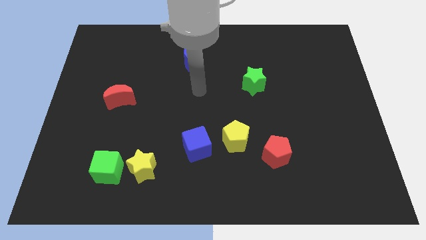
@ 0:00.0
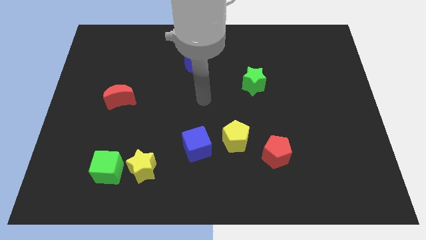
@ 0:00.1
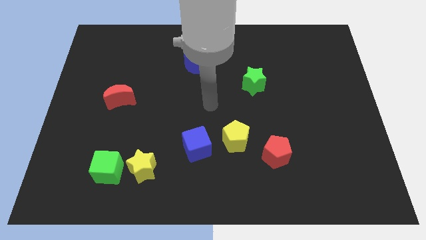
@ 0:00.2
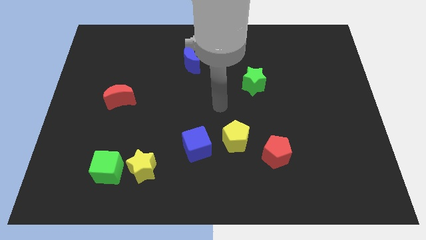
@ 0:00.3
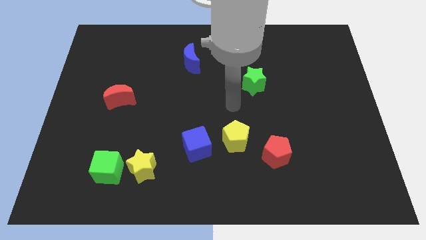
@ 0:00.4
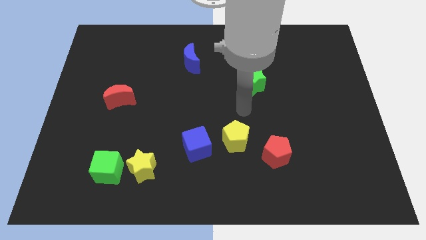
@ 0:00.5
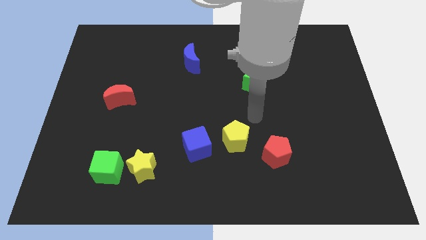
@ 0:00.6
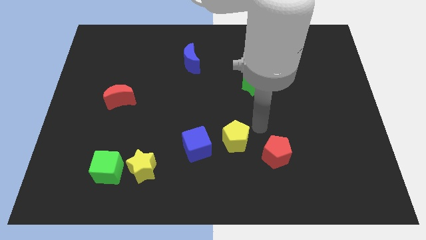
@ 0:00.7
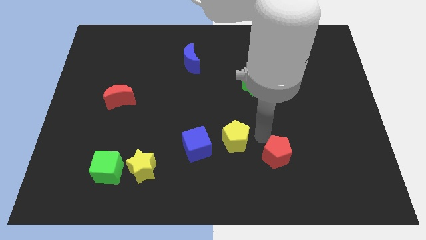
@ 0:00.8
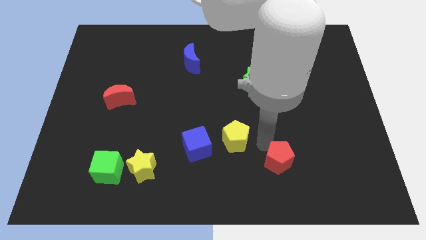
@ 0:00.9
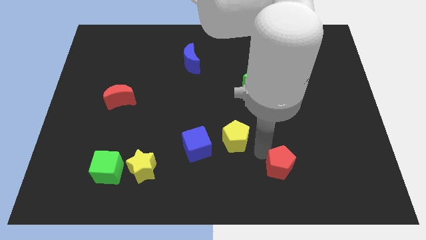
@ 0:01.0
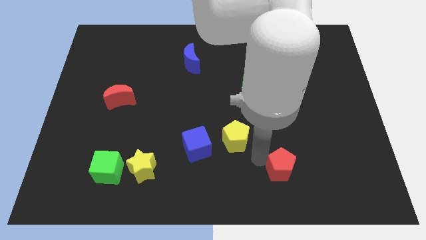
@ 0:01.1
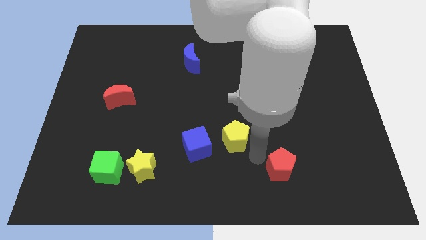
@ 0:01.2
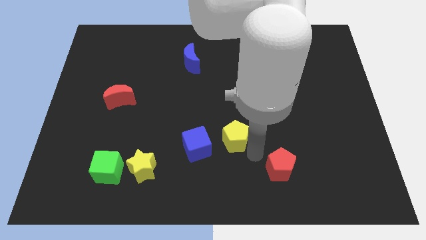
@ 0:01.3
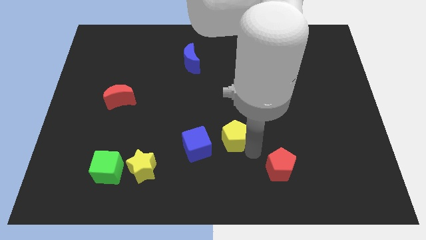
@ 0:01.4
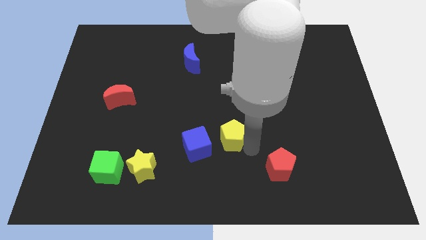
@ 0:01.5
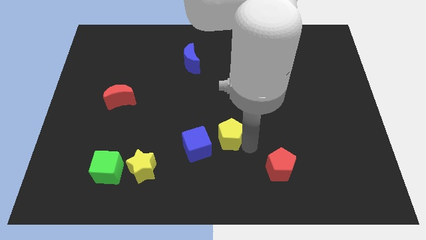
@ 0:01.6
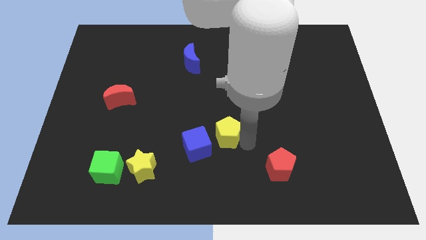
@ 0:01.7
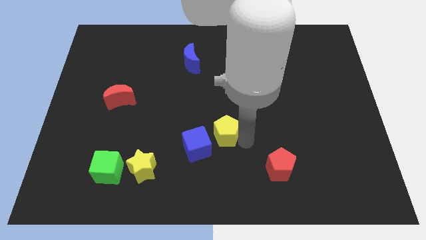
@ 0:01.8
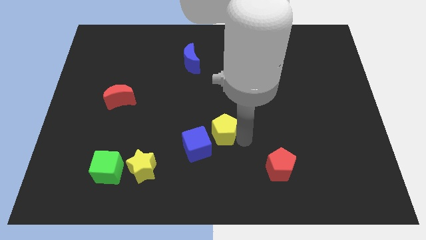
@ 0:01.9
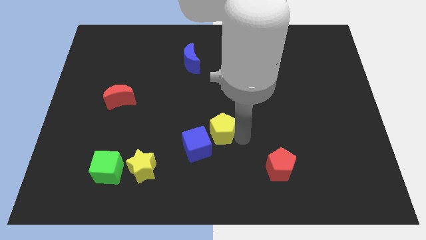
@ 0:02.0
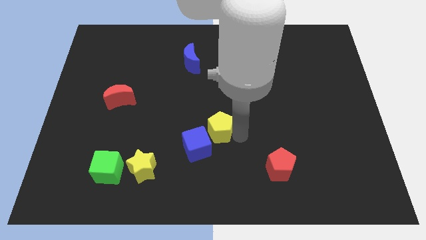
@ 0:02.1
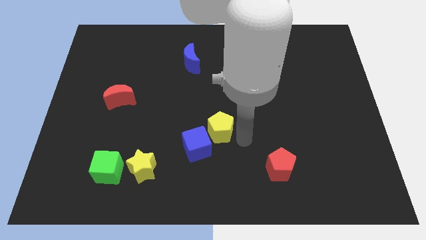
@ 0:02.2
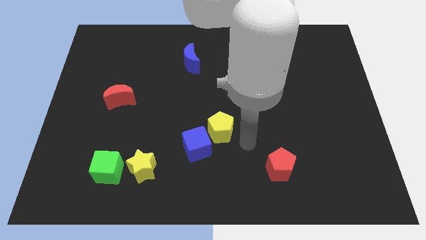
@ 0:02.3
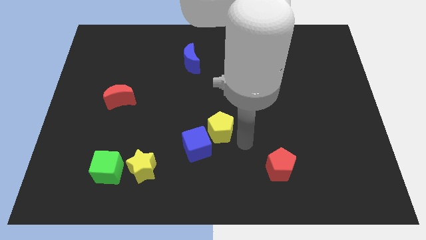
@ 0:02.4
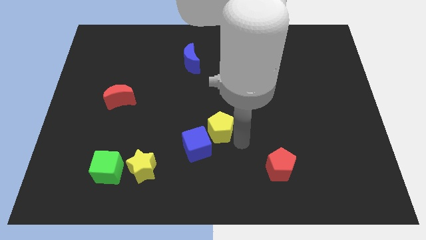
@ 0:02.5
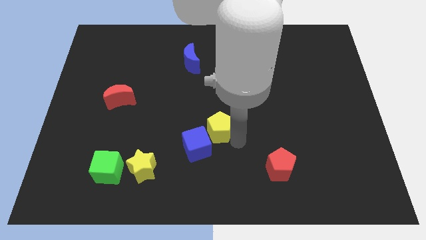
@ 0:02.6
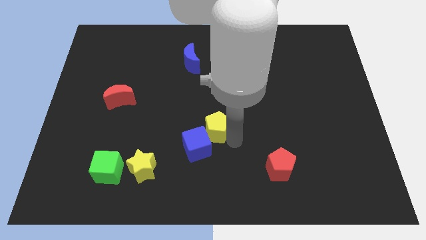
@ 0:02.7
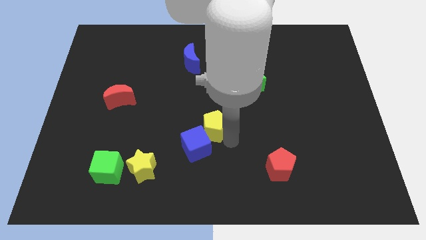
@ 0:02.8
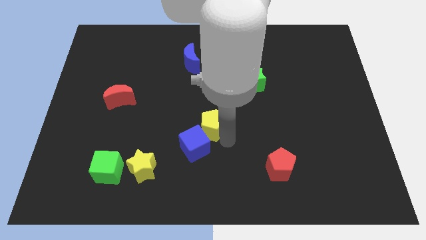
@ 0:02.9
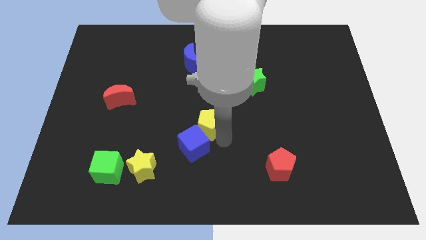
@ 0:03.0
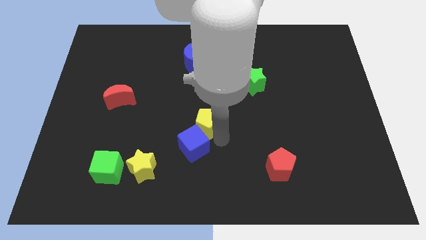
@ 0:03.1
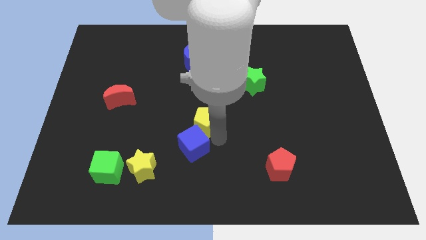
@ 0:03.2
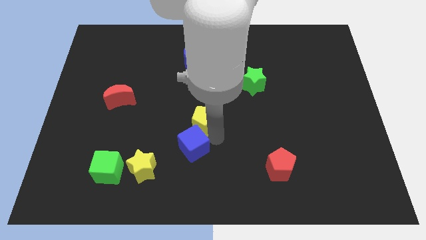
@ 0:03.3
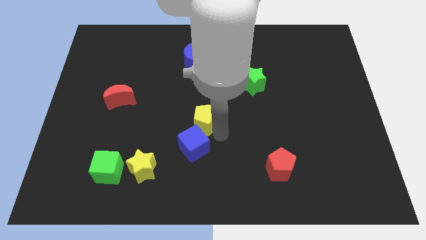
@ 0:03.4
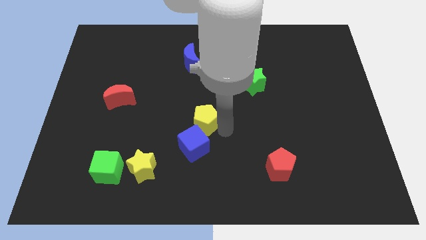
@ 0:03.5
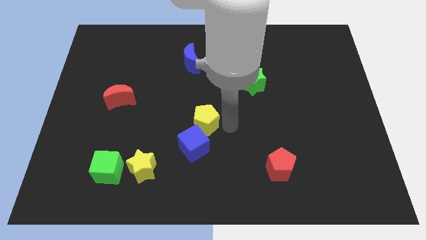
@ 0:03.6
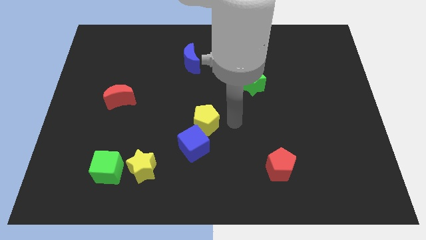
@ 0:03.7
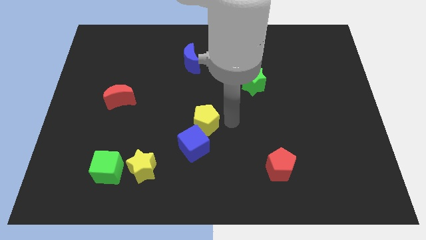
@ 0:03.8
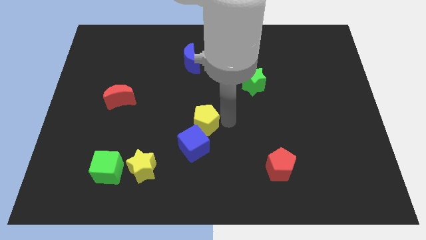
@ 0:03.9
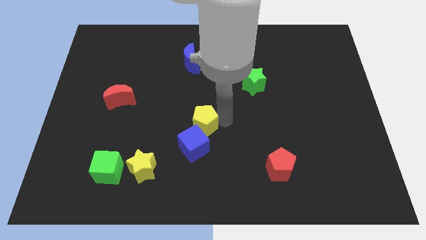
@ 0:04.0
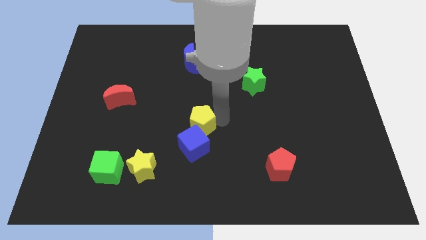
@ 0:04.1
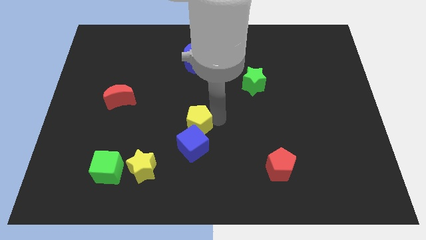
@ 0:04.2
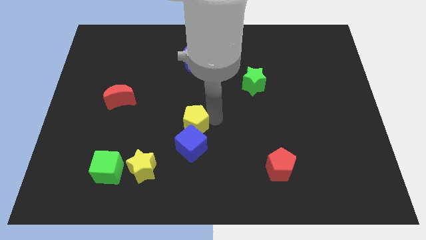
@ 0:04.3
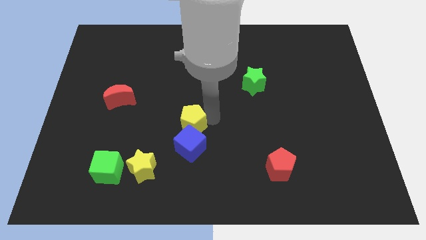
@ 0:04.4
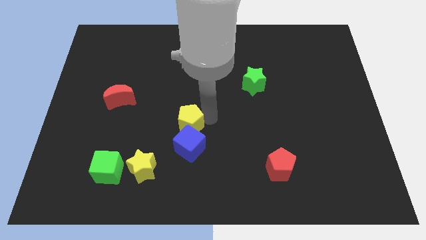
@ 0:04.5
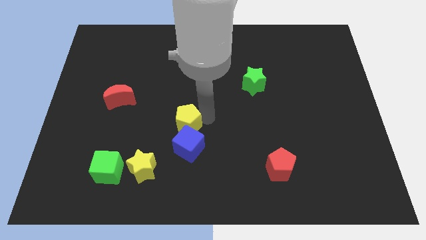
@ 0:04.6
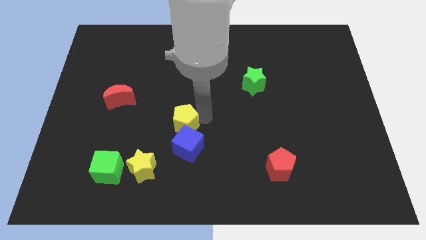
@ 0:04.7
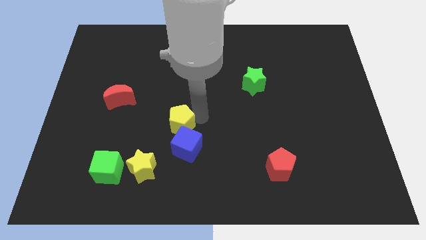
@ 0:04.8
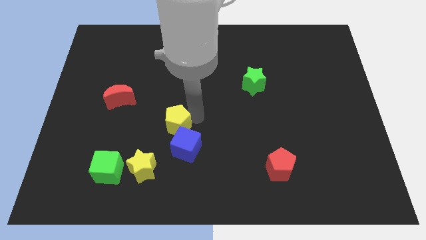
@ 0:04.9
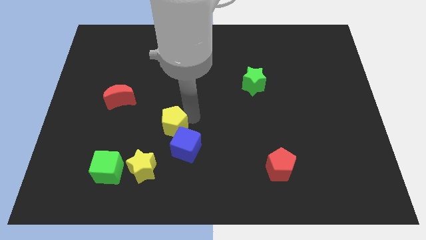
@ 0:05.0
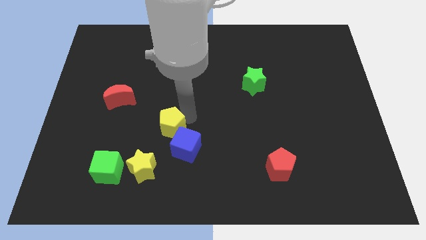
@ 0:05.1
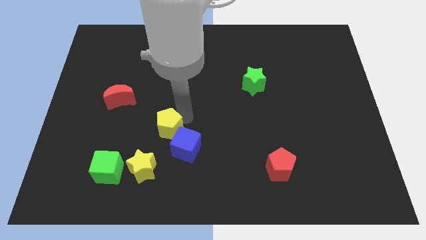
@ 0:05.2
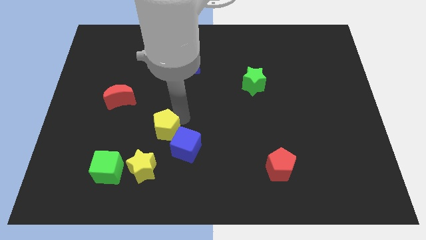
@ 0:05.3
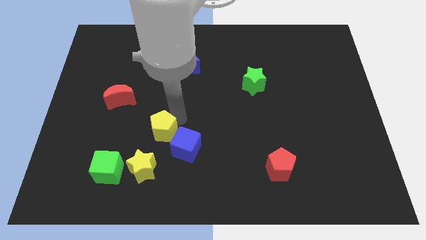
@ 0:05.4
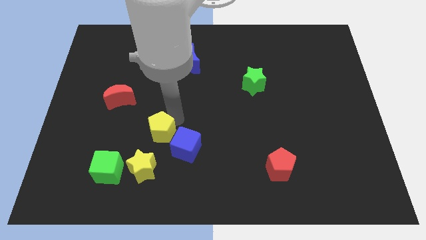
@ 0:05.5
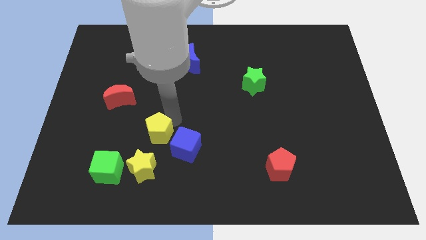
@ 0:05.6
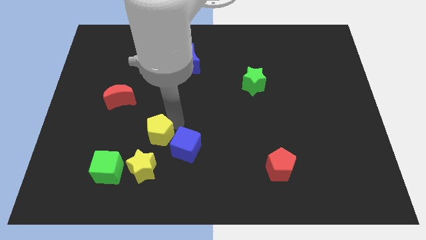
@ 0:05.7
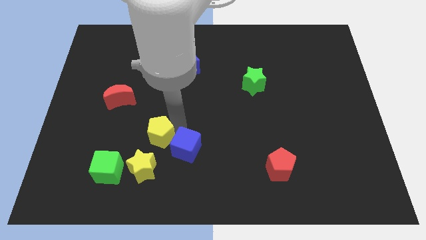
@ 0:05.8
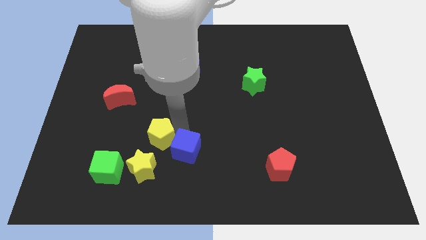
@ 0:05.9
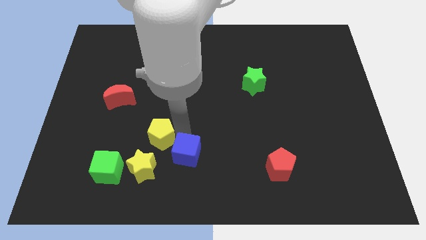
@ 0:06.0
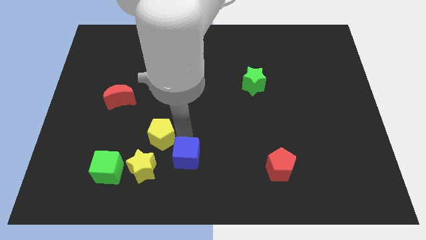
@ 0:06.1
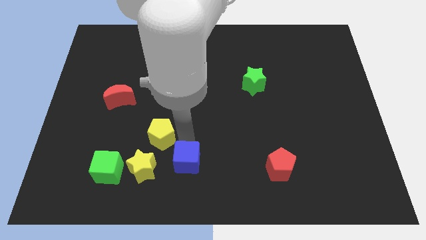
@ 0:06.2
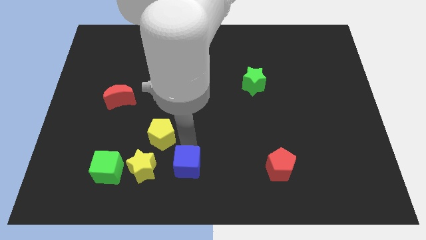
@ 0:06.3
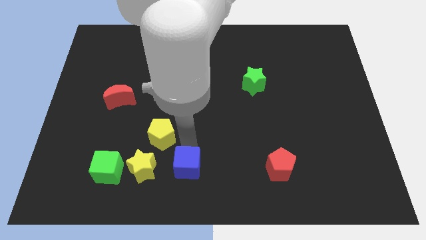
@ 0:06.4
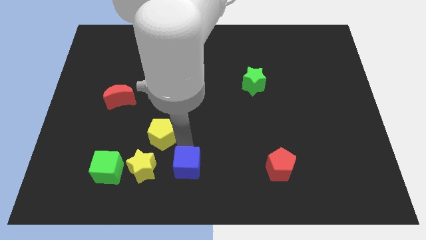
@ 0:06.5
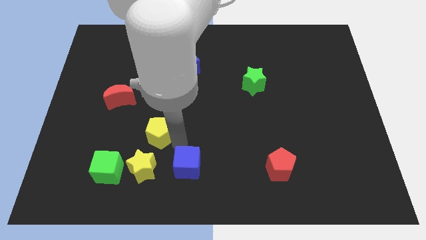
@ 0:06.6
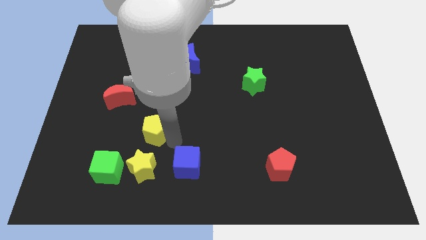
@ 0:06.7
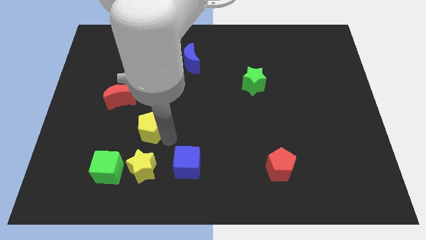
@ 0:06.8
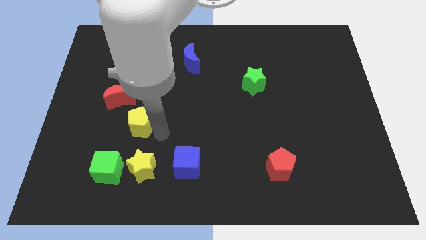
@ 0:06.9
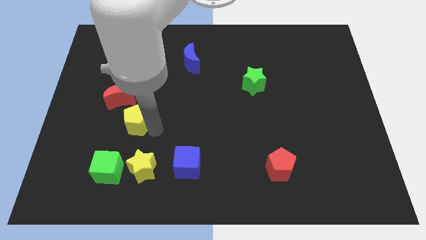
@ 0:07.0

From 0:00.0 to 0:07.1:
slide the yellow pentagon above the green cube

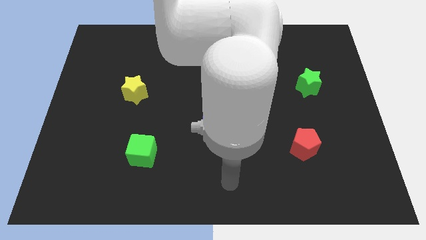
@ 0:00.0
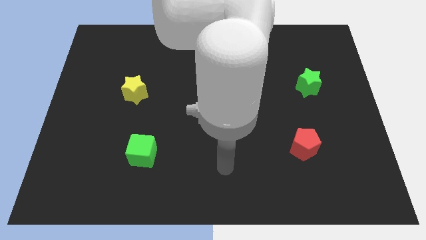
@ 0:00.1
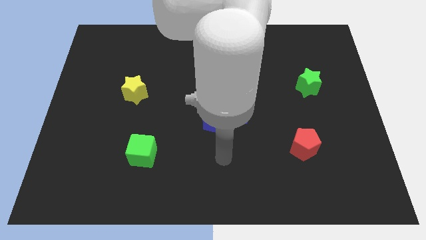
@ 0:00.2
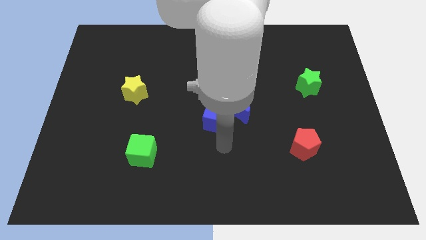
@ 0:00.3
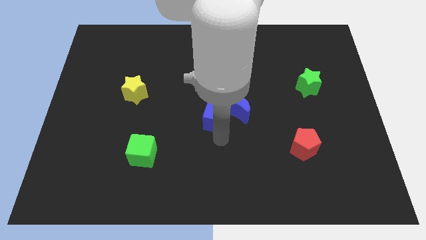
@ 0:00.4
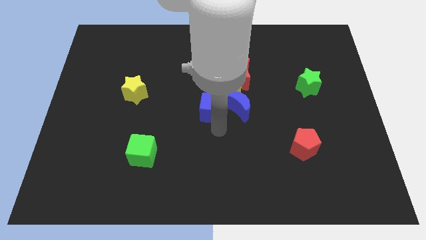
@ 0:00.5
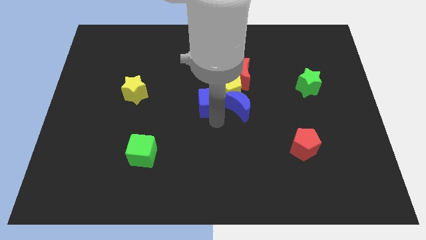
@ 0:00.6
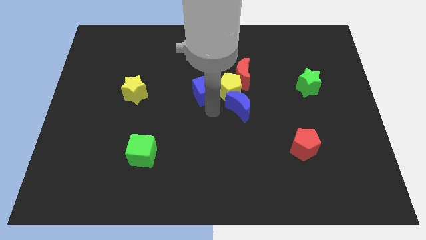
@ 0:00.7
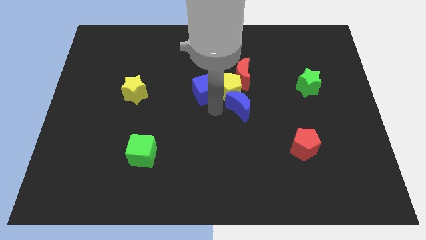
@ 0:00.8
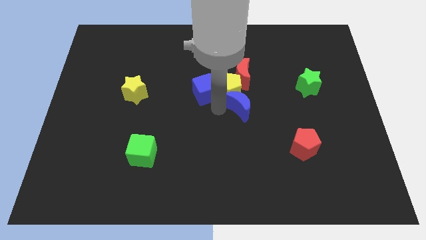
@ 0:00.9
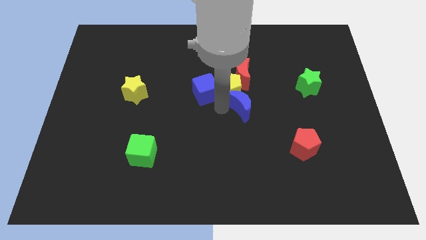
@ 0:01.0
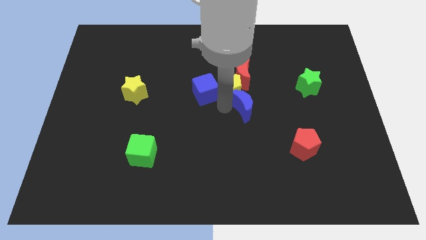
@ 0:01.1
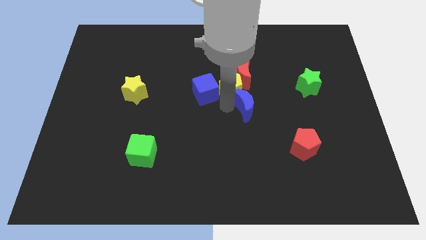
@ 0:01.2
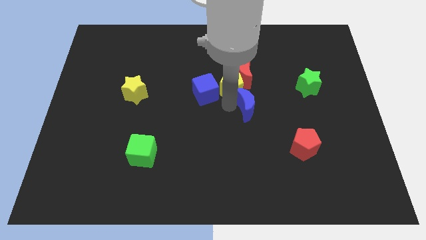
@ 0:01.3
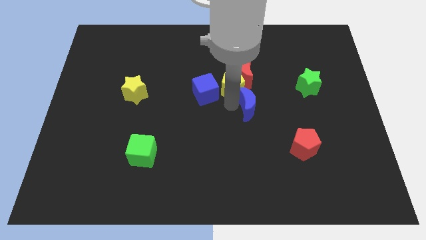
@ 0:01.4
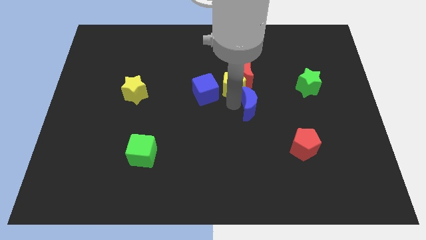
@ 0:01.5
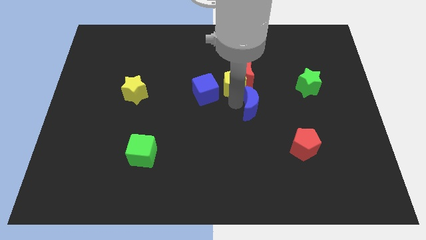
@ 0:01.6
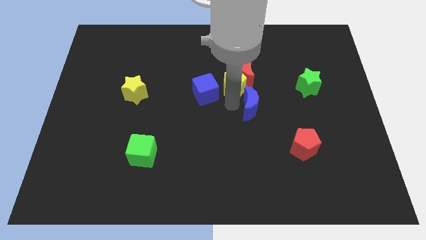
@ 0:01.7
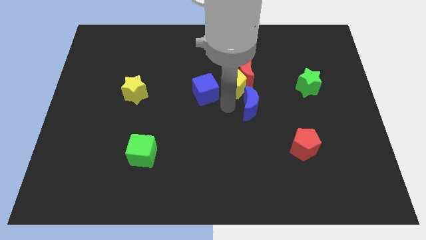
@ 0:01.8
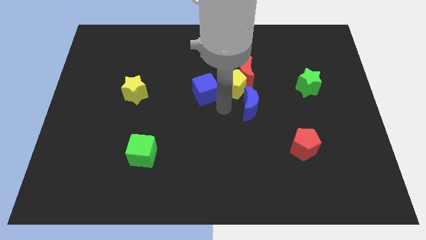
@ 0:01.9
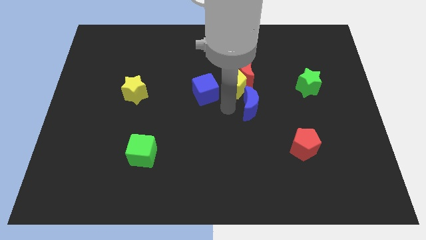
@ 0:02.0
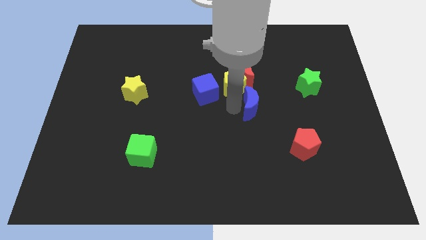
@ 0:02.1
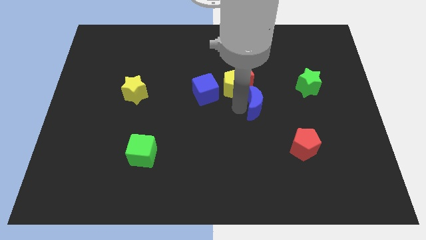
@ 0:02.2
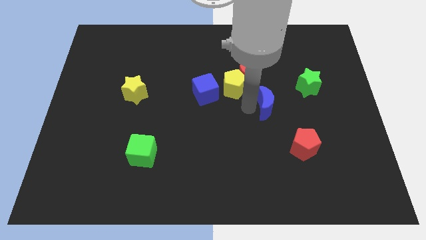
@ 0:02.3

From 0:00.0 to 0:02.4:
put the blue moon to the bottom left side of the green star
